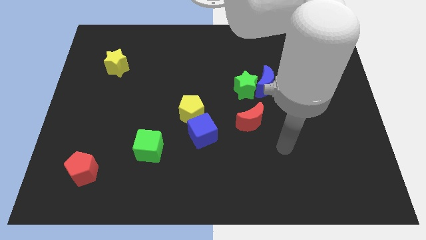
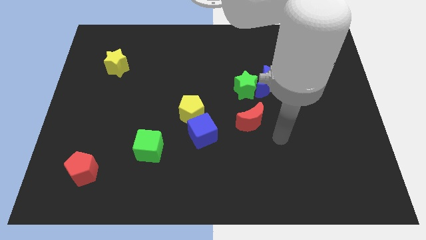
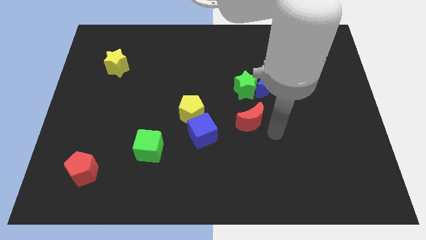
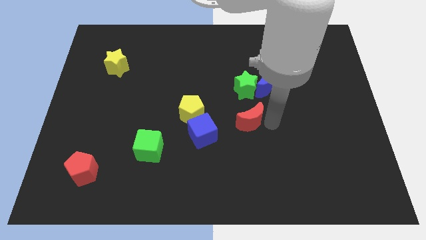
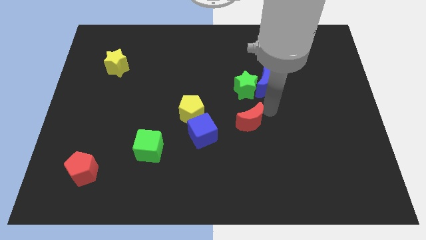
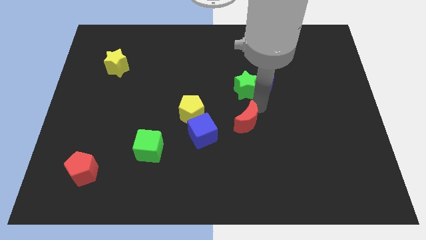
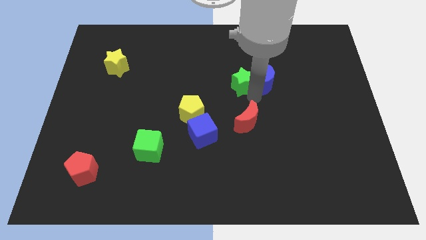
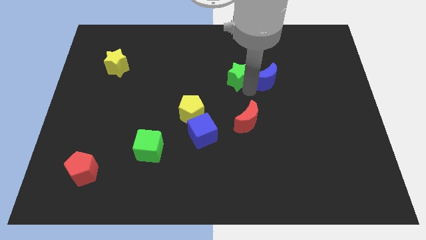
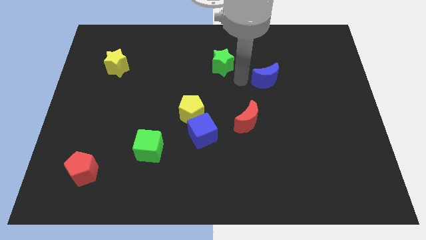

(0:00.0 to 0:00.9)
separate the blue moon from the green star

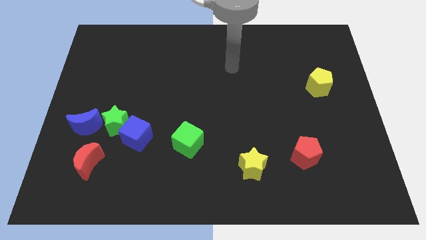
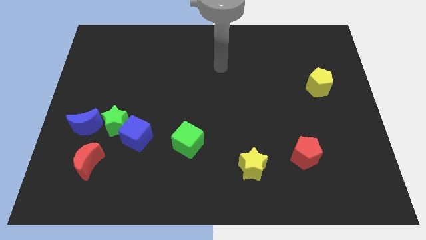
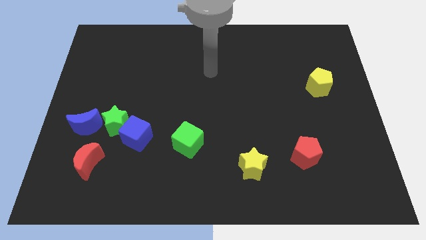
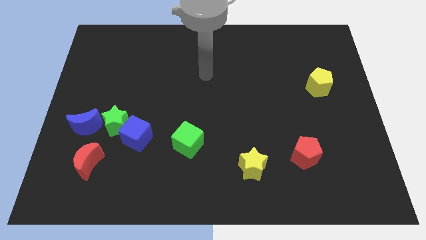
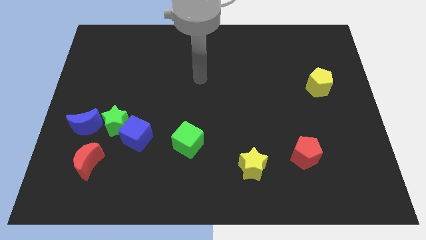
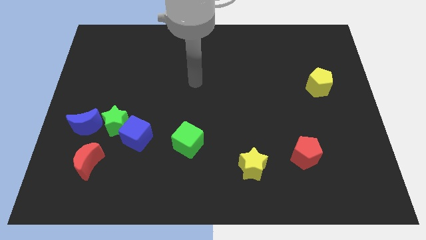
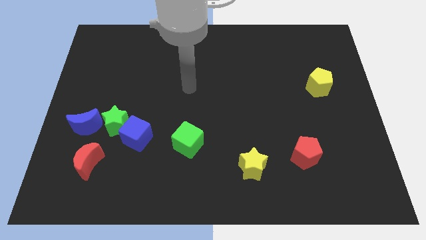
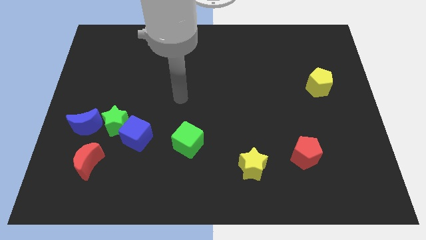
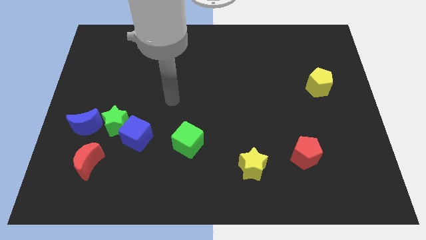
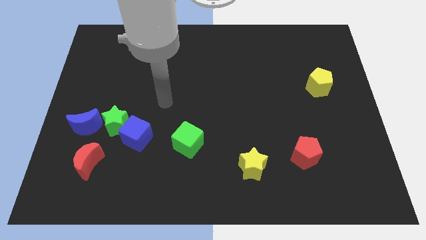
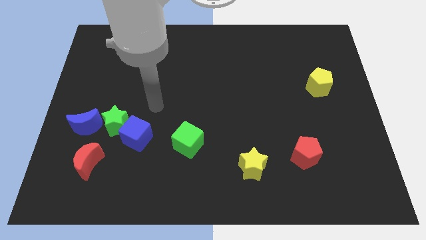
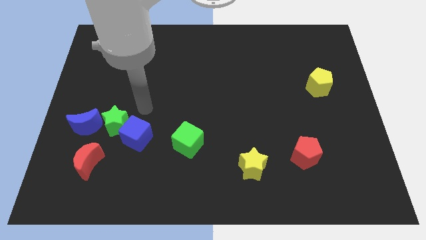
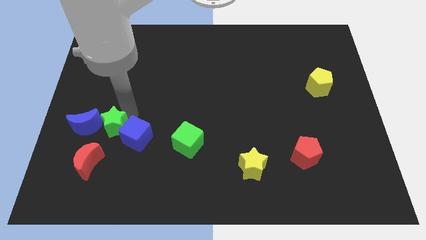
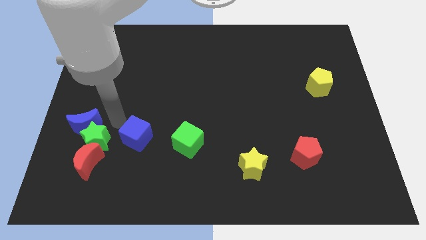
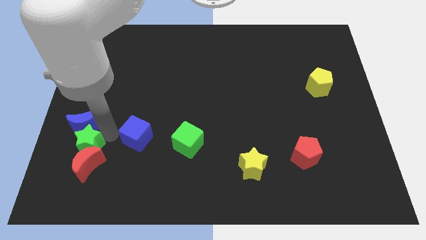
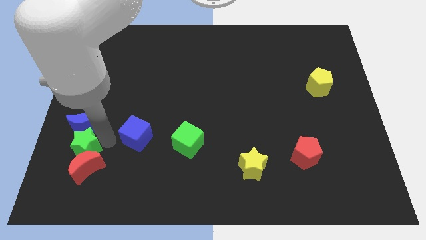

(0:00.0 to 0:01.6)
separate the blue cube from the green star

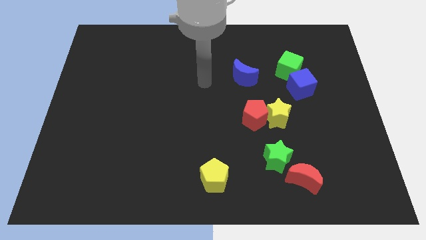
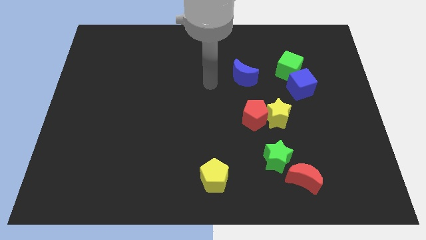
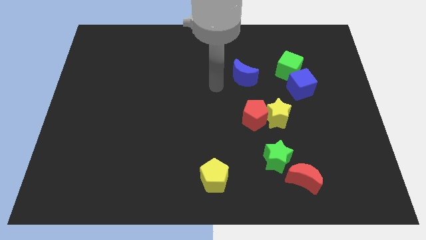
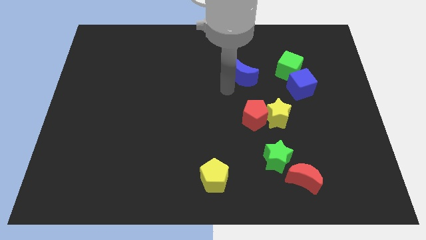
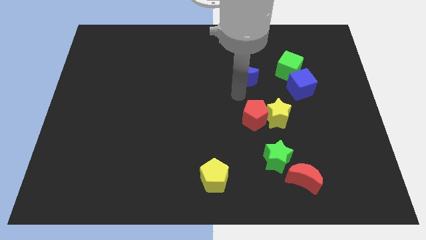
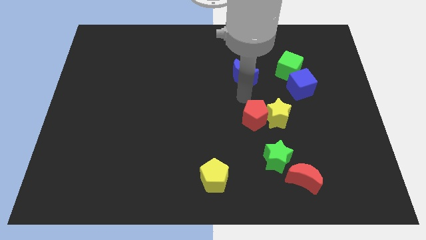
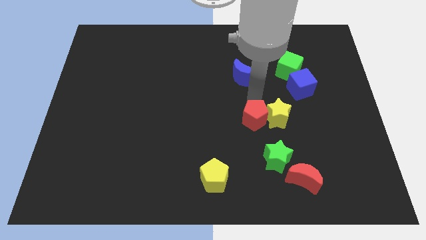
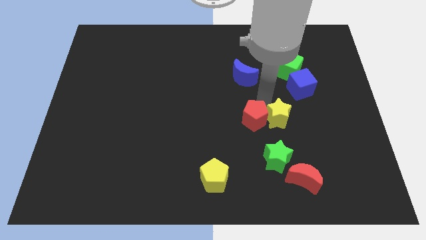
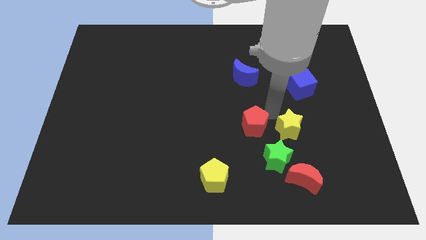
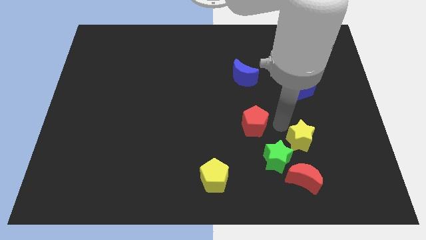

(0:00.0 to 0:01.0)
pull the red pentagon apart from the yellow star

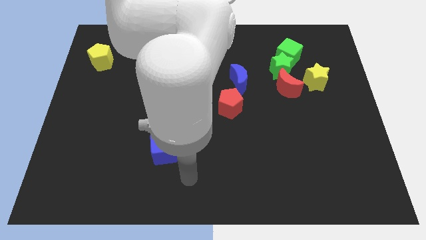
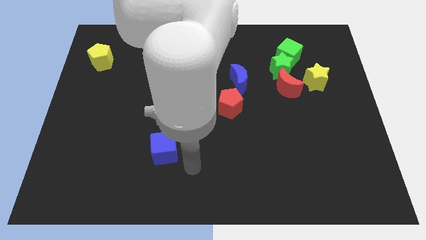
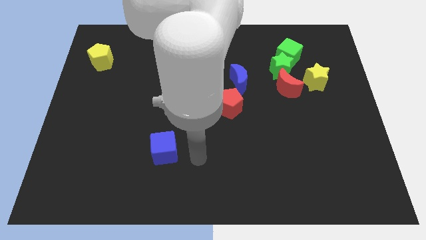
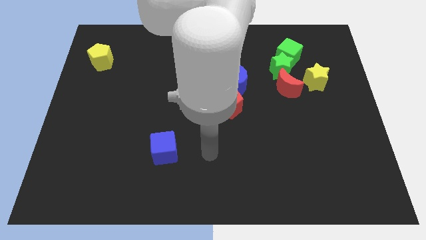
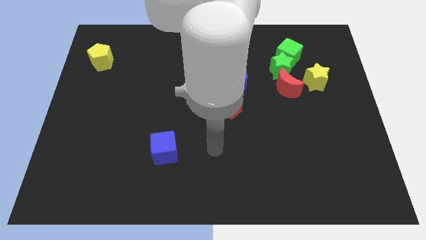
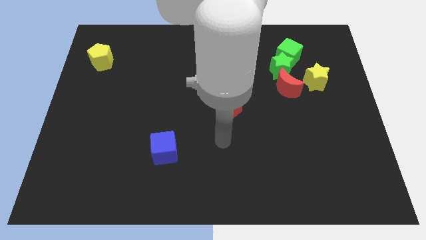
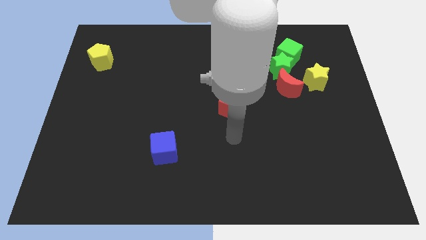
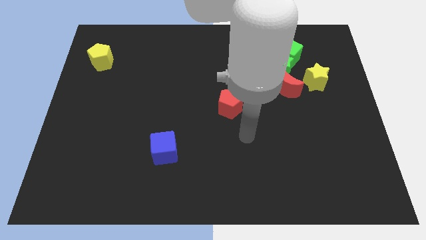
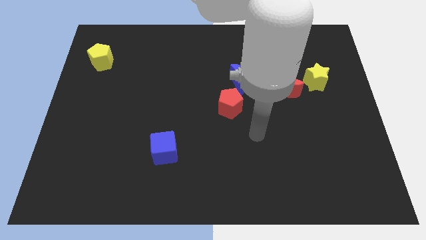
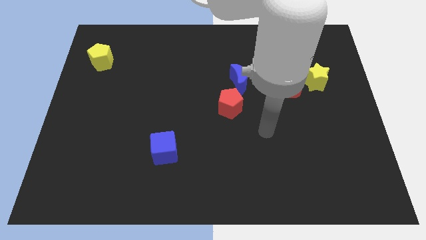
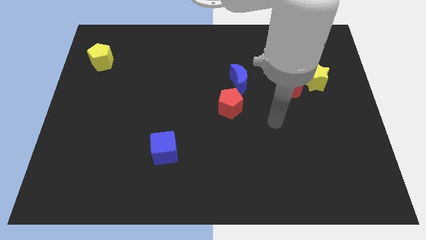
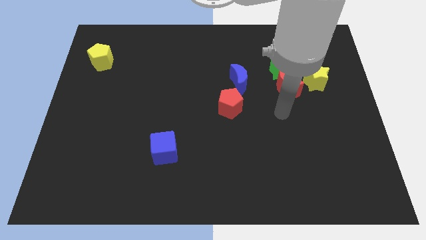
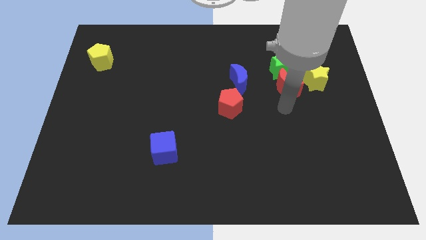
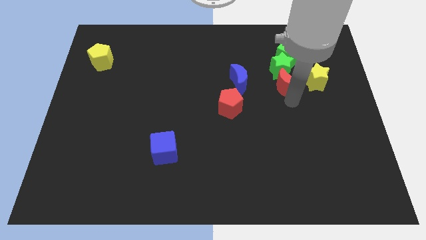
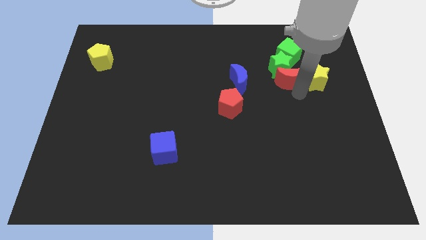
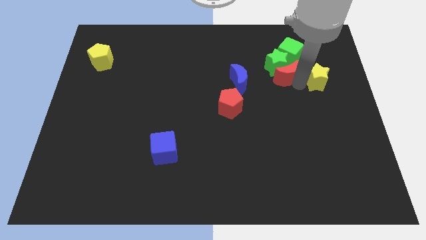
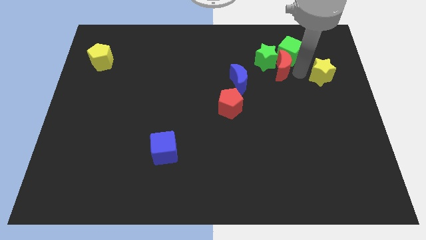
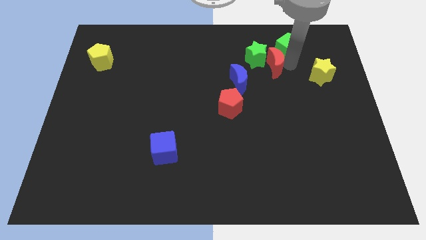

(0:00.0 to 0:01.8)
separate the green star from the group of blocks

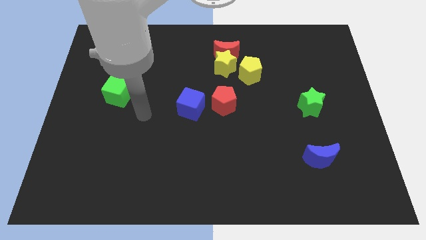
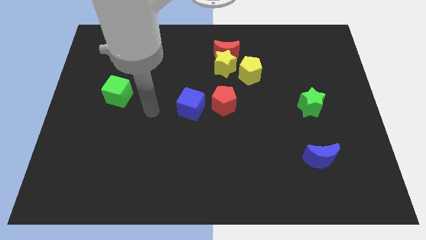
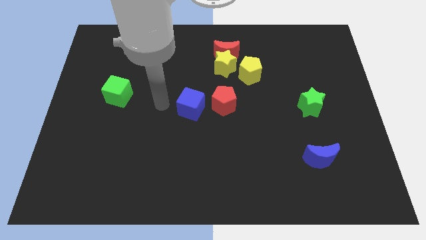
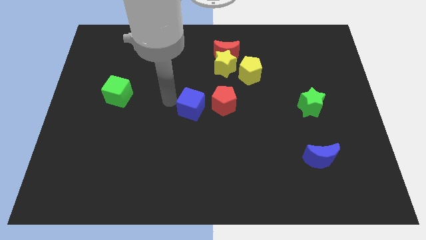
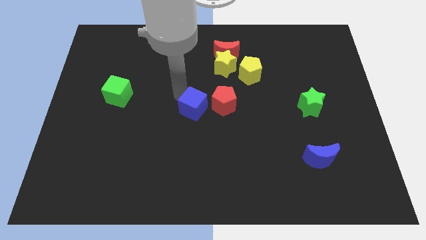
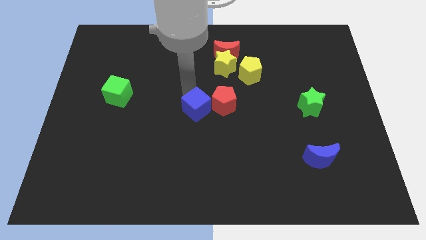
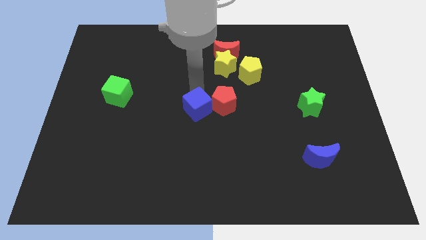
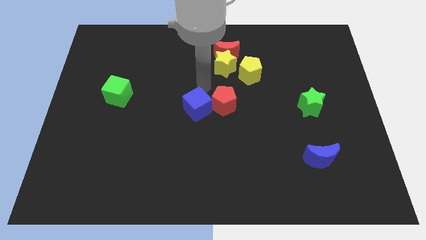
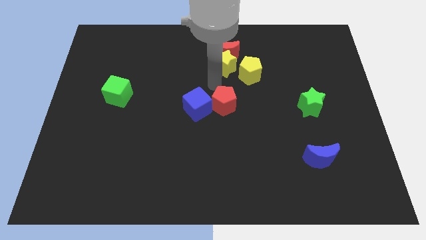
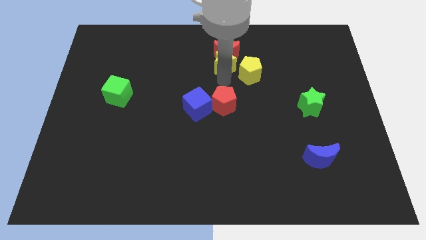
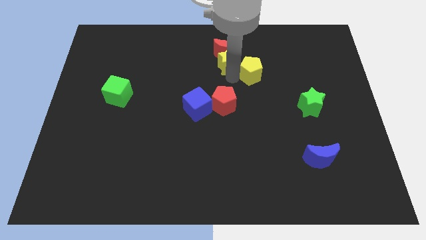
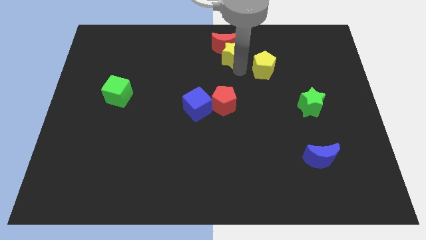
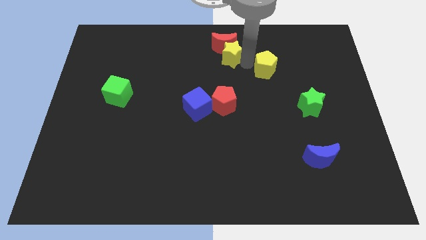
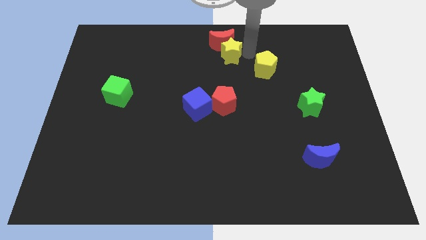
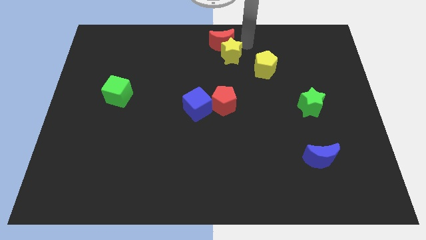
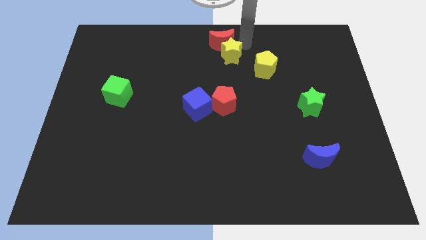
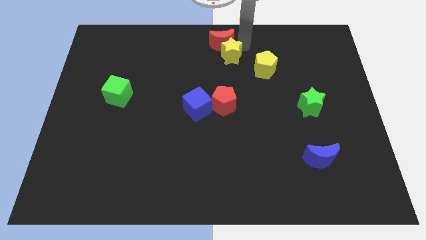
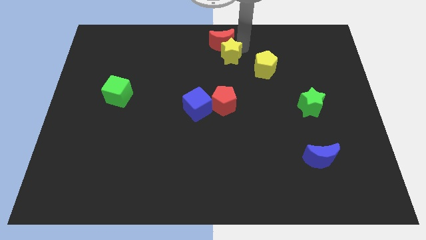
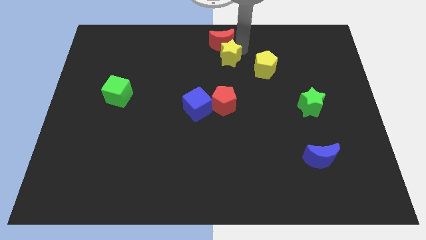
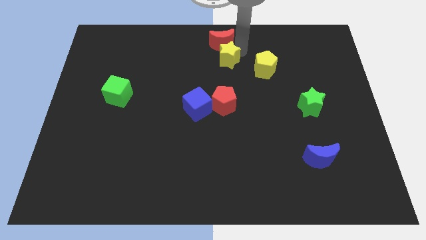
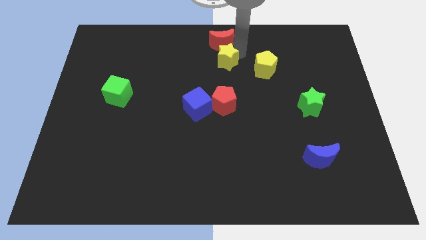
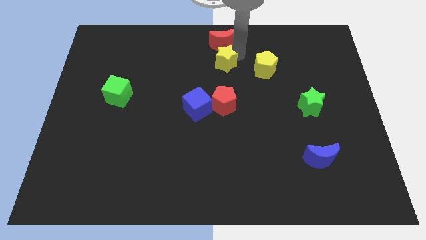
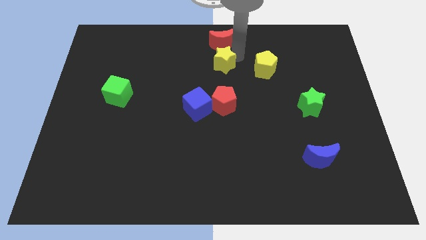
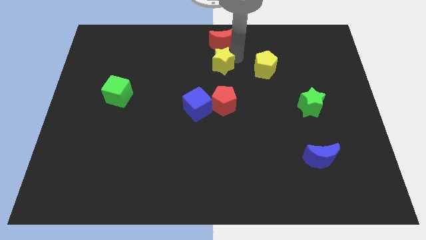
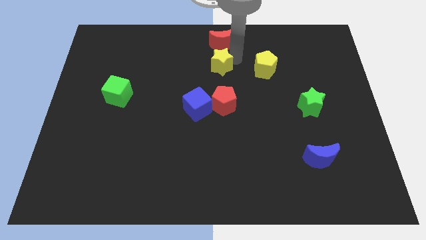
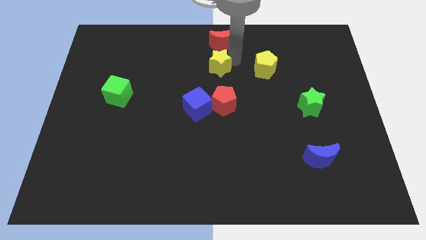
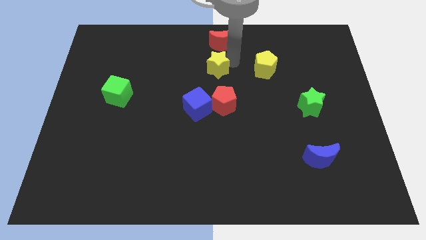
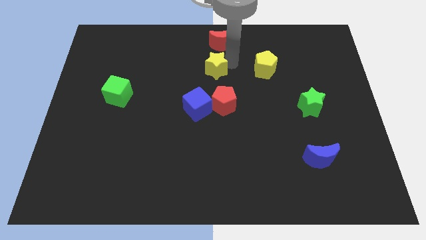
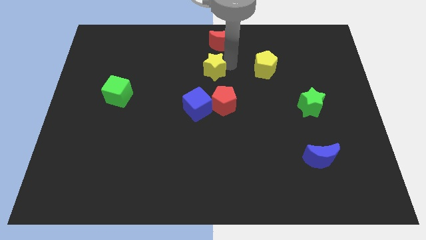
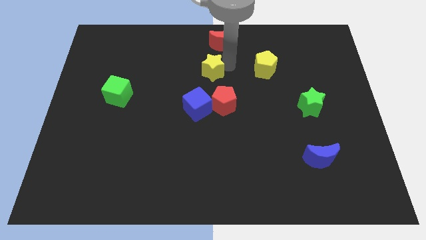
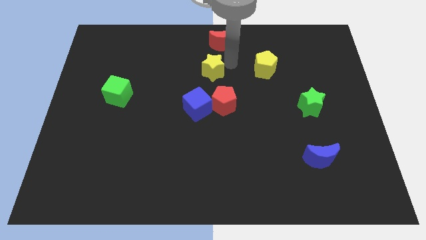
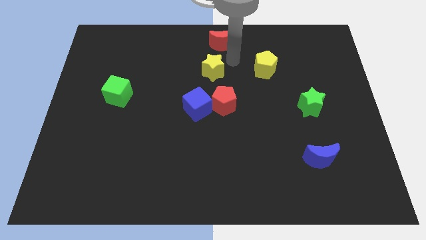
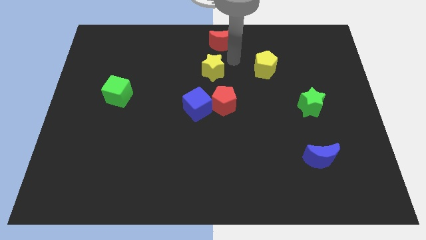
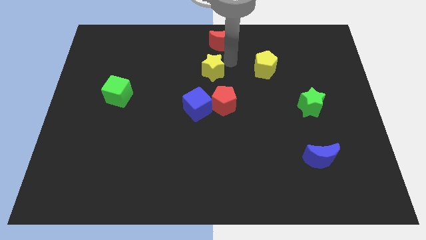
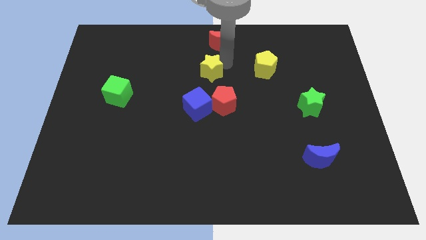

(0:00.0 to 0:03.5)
pull the yellow star apart from the red moon and yellow pentagon

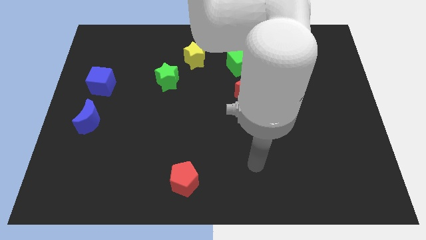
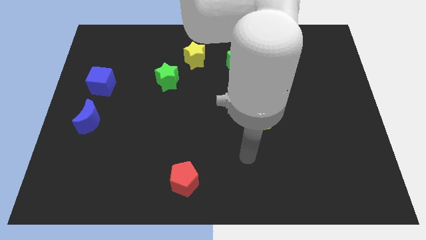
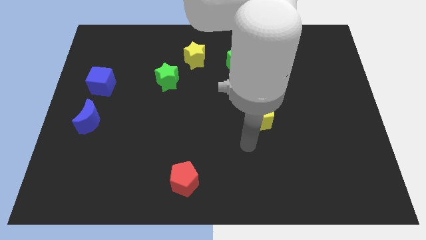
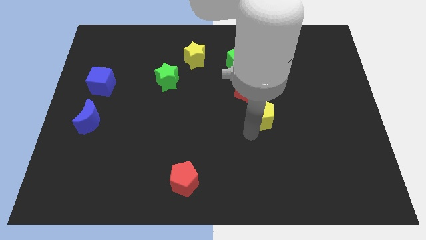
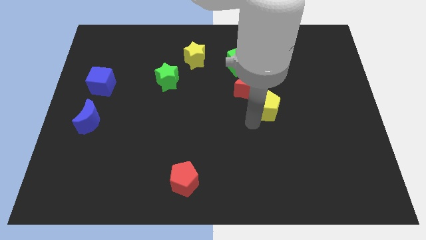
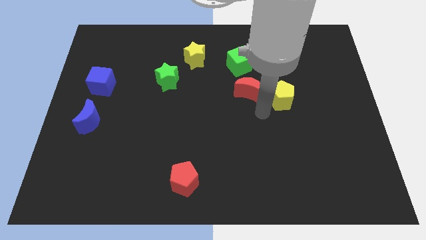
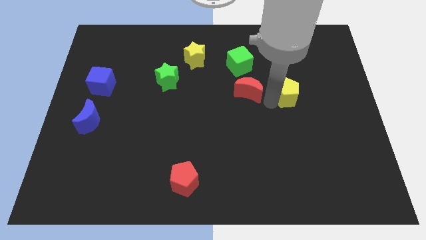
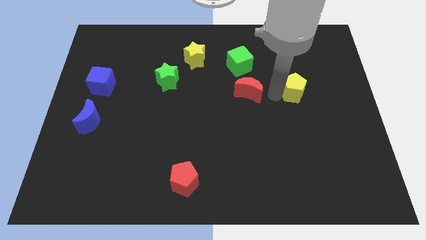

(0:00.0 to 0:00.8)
separate the red moon from the yellow pentagon
